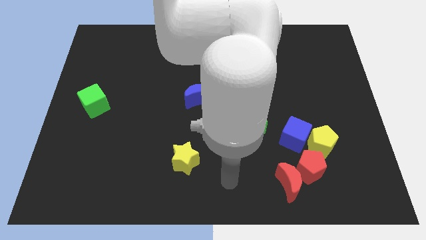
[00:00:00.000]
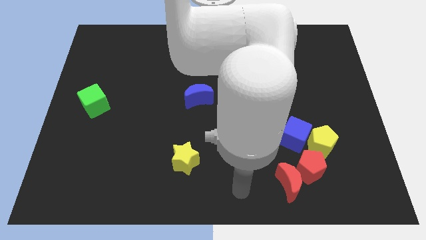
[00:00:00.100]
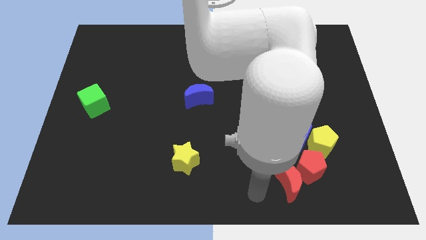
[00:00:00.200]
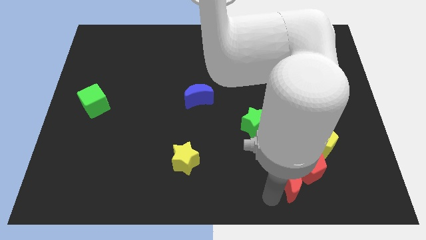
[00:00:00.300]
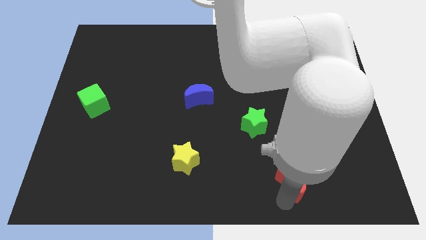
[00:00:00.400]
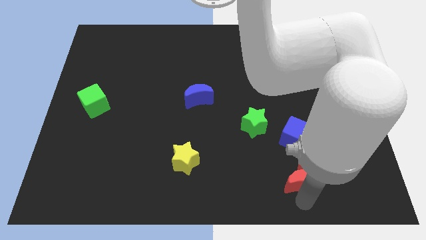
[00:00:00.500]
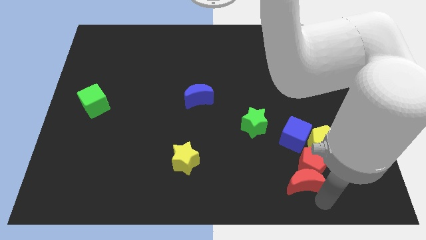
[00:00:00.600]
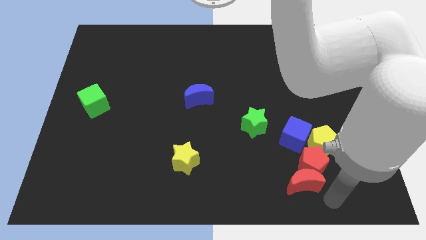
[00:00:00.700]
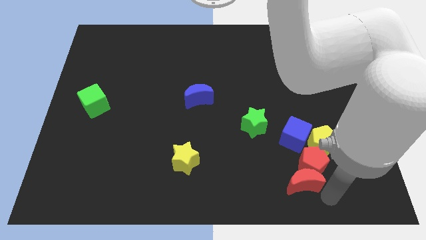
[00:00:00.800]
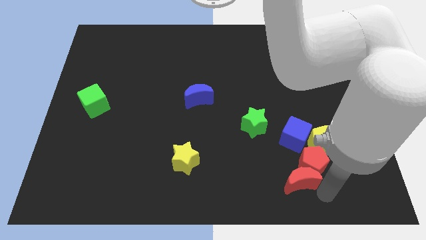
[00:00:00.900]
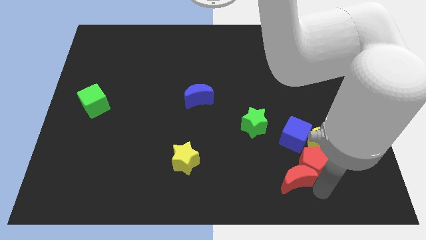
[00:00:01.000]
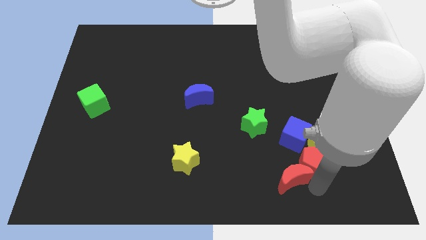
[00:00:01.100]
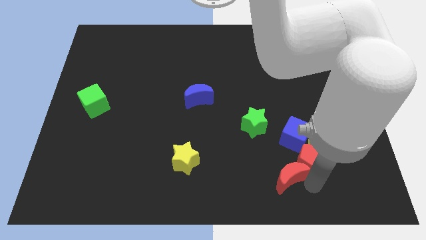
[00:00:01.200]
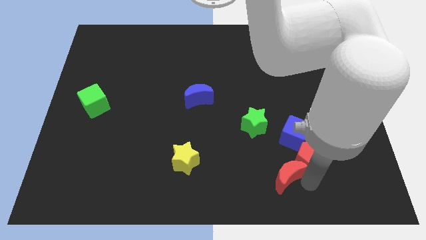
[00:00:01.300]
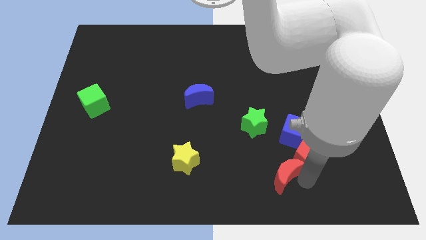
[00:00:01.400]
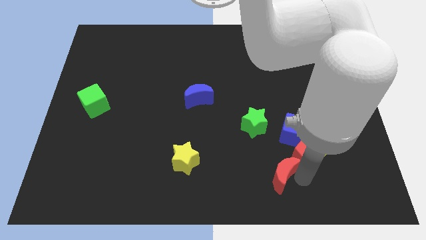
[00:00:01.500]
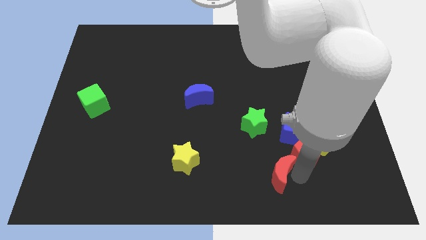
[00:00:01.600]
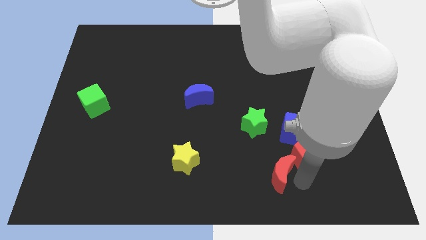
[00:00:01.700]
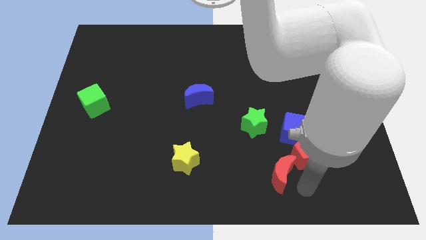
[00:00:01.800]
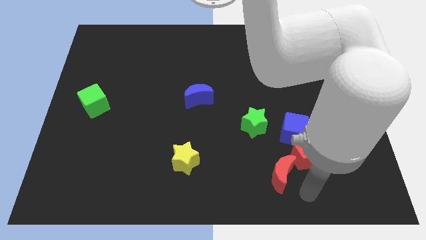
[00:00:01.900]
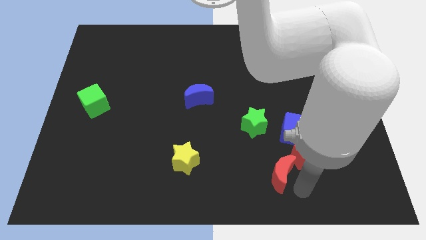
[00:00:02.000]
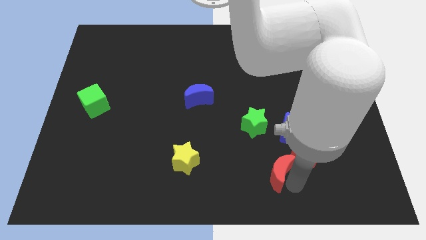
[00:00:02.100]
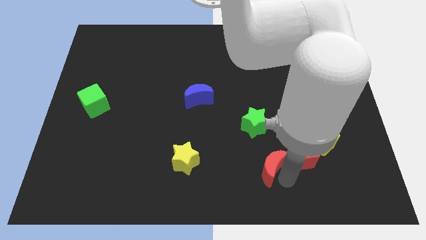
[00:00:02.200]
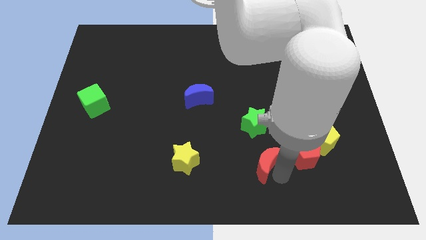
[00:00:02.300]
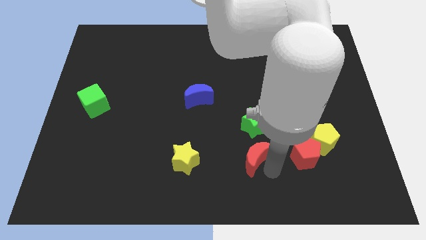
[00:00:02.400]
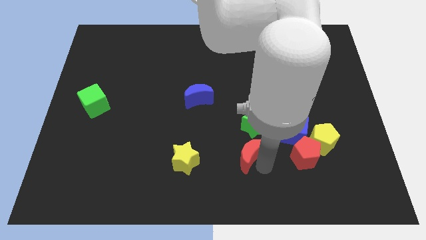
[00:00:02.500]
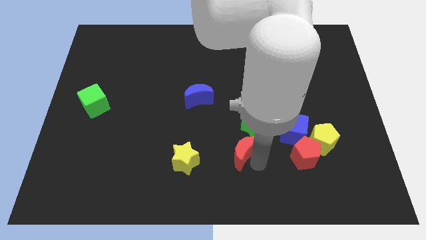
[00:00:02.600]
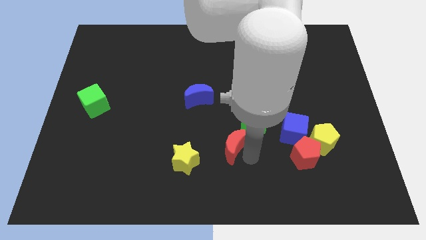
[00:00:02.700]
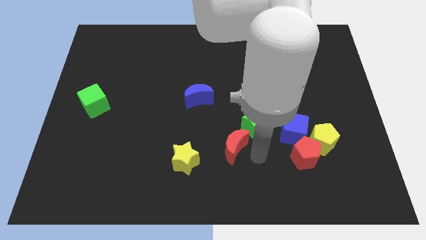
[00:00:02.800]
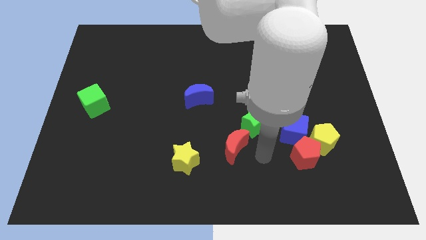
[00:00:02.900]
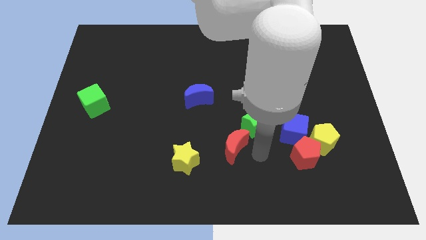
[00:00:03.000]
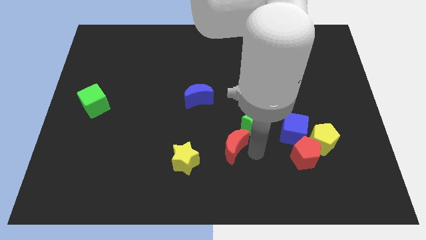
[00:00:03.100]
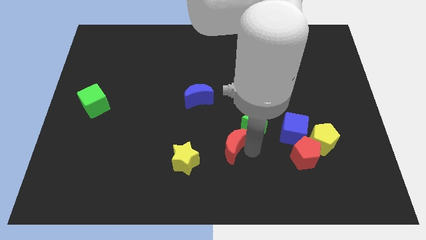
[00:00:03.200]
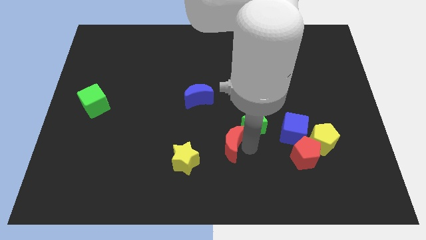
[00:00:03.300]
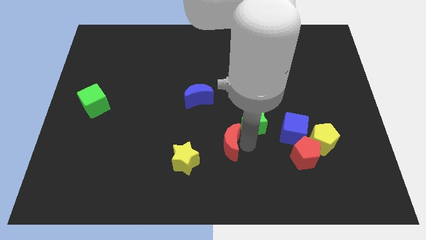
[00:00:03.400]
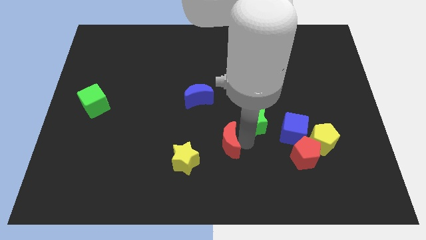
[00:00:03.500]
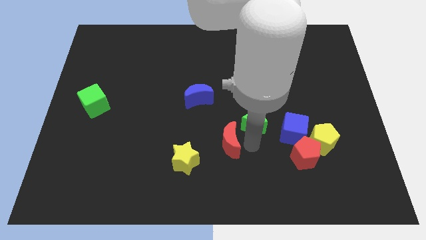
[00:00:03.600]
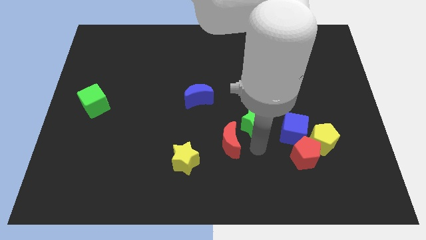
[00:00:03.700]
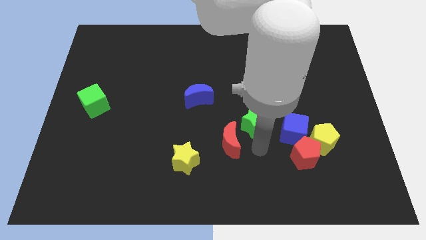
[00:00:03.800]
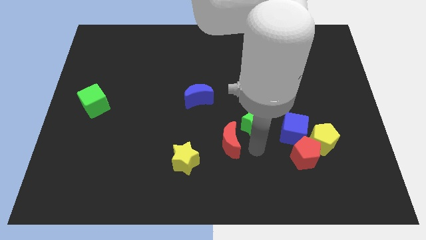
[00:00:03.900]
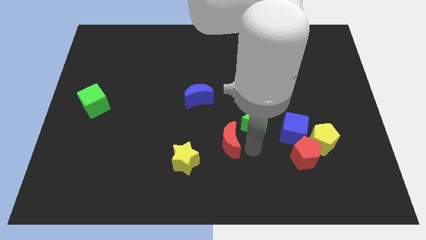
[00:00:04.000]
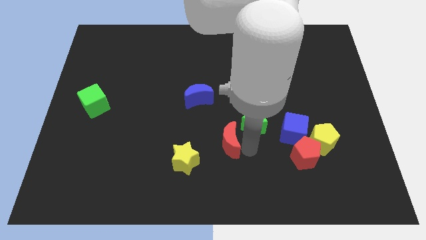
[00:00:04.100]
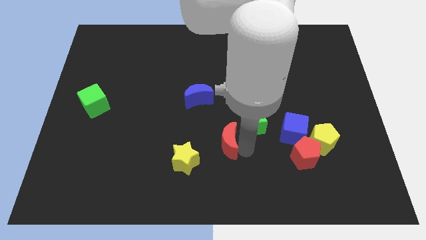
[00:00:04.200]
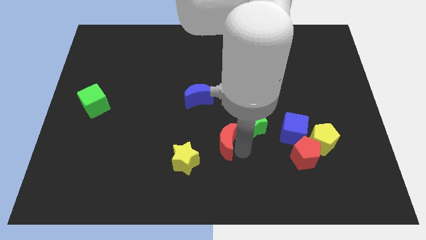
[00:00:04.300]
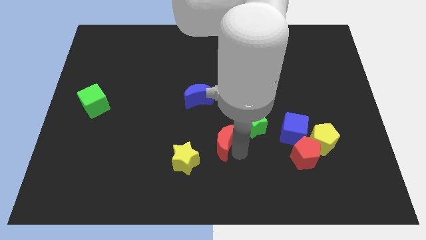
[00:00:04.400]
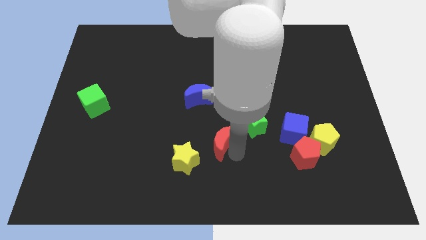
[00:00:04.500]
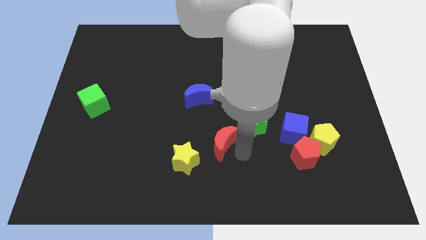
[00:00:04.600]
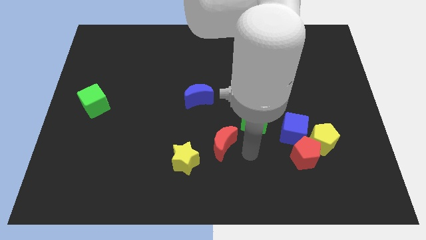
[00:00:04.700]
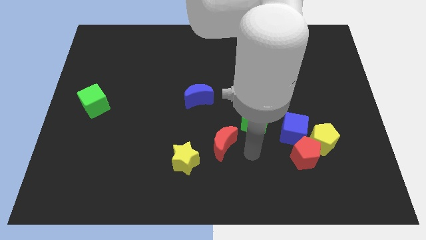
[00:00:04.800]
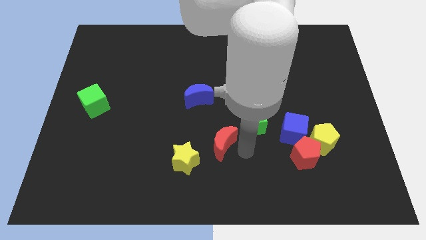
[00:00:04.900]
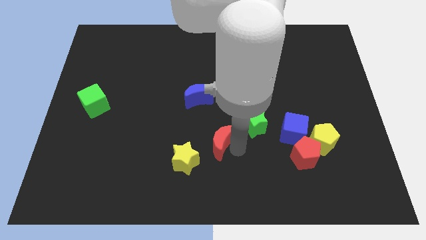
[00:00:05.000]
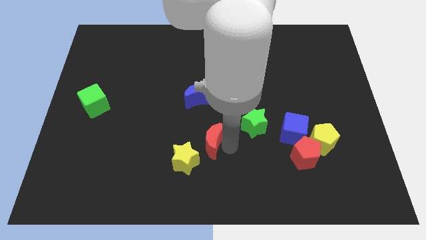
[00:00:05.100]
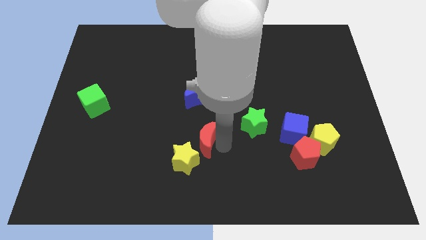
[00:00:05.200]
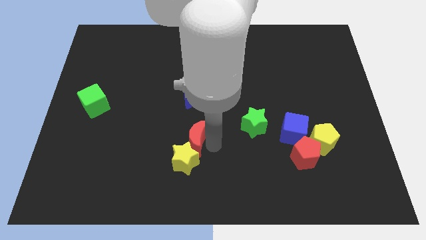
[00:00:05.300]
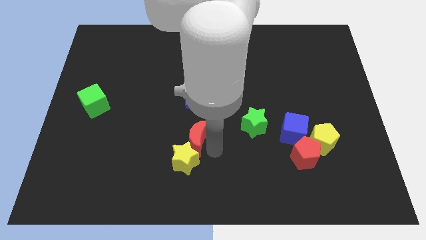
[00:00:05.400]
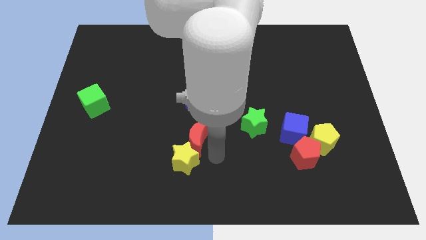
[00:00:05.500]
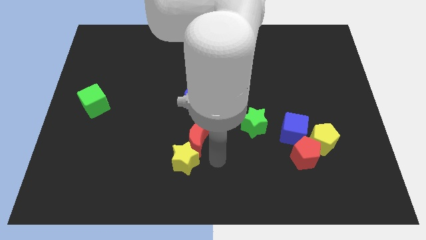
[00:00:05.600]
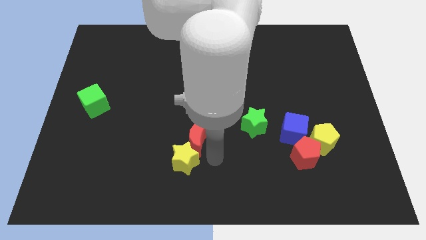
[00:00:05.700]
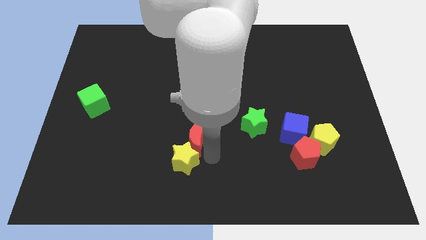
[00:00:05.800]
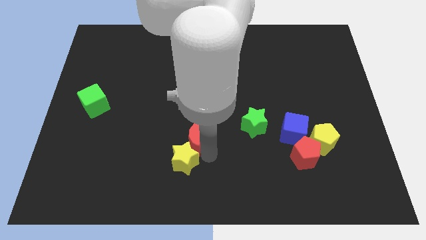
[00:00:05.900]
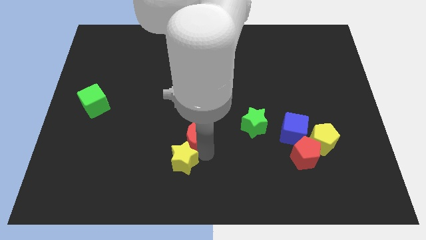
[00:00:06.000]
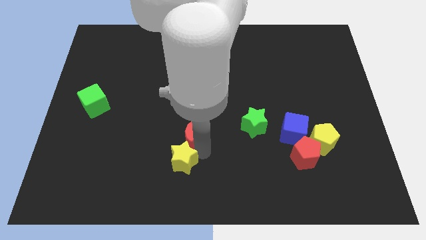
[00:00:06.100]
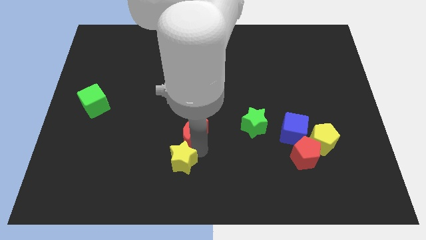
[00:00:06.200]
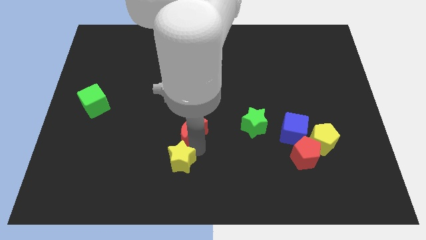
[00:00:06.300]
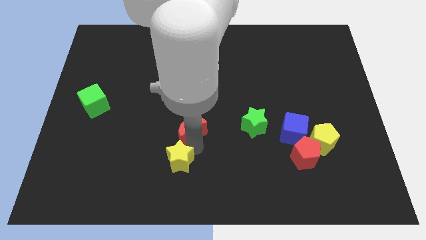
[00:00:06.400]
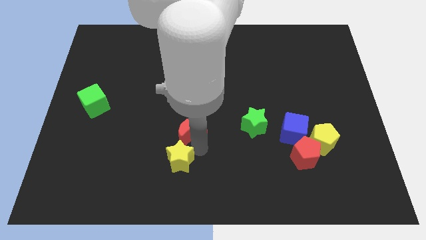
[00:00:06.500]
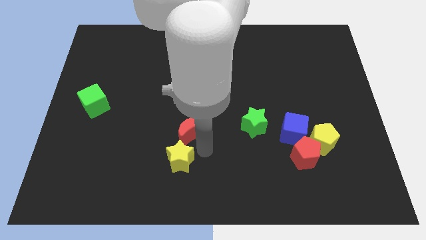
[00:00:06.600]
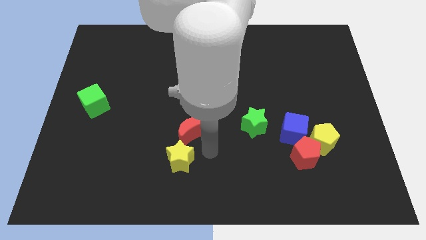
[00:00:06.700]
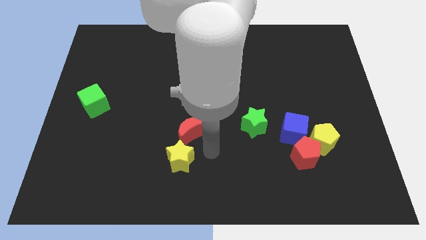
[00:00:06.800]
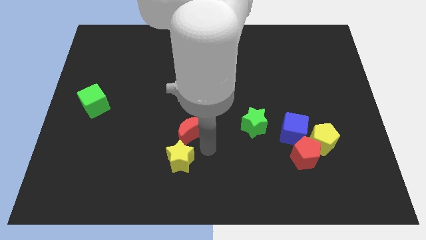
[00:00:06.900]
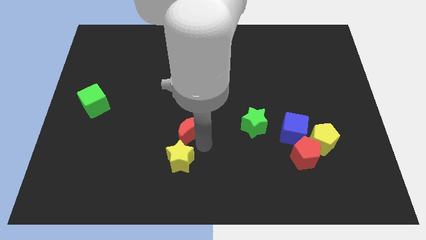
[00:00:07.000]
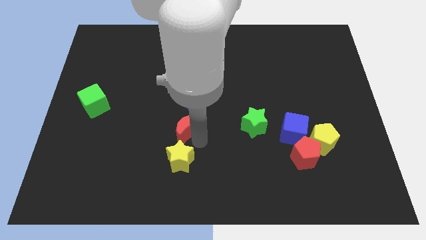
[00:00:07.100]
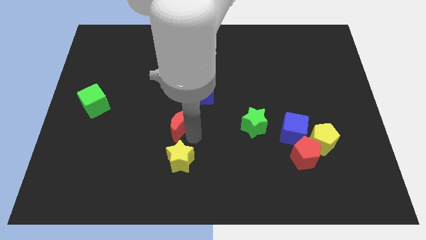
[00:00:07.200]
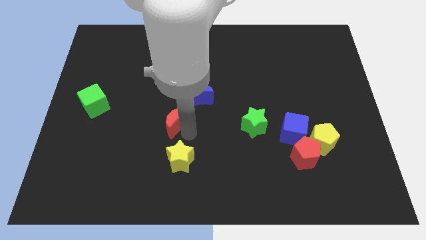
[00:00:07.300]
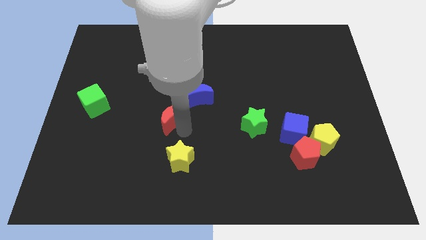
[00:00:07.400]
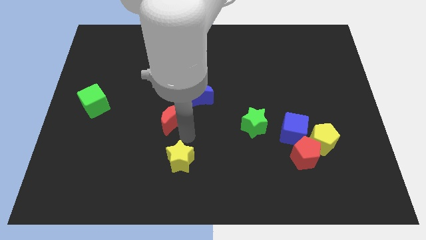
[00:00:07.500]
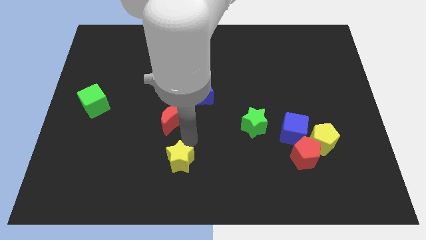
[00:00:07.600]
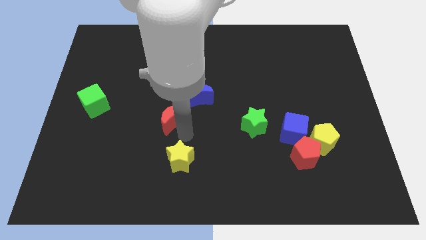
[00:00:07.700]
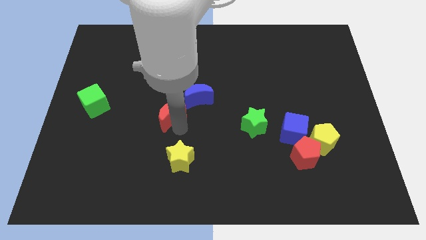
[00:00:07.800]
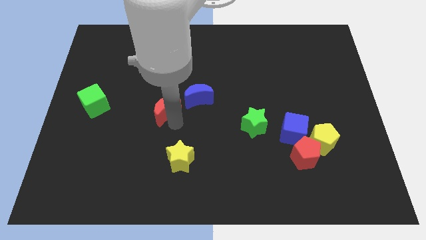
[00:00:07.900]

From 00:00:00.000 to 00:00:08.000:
put the red moon to the left of the blue moon
